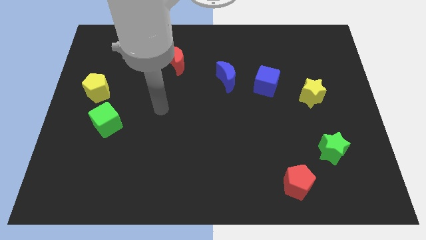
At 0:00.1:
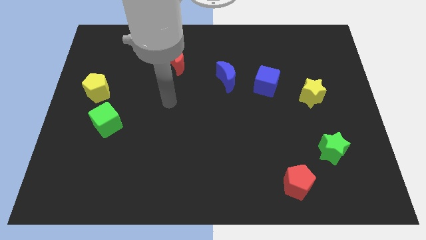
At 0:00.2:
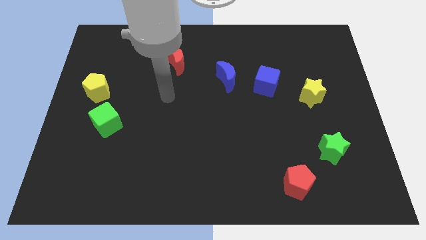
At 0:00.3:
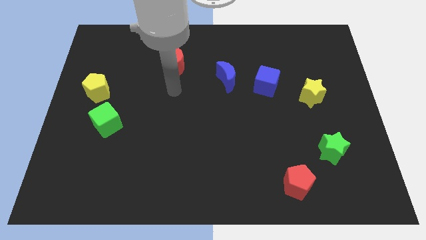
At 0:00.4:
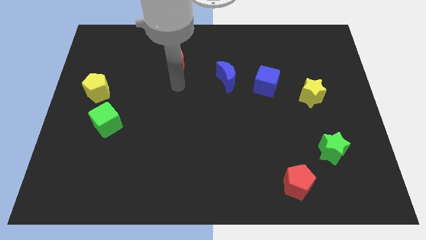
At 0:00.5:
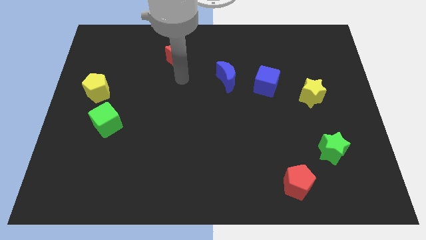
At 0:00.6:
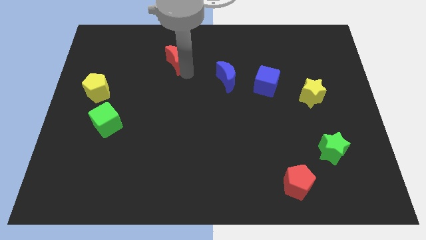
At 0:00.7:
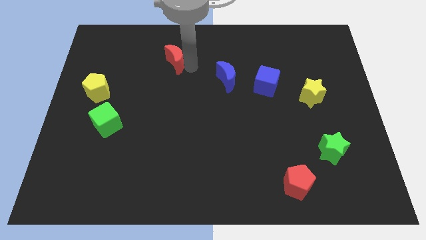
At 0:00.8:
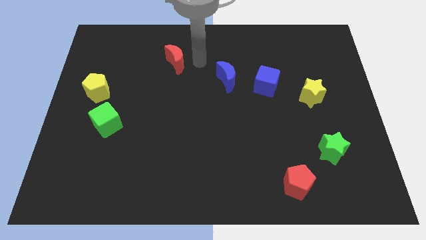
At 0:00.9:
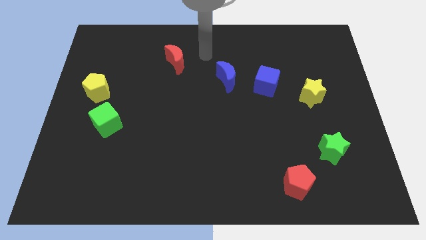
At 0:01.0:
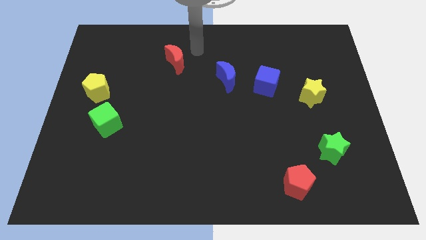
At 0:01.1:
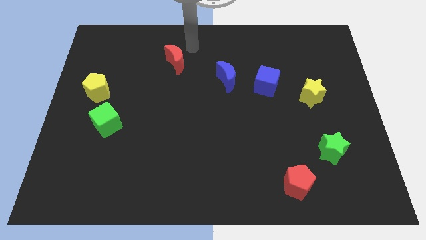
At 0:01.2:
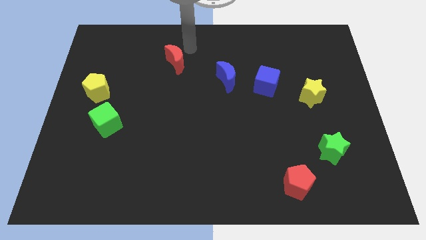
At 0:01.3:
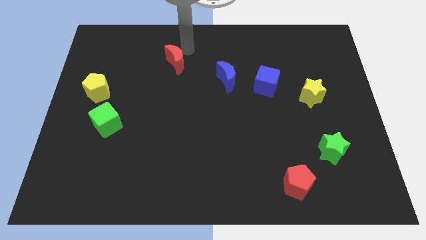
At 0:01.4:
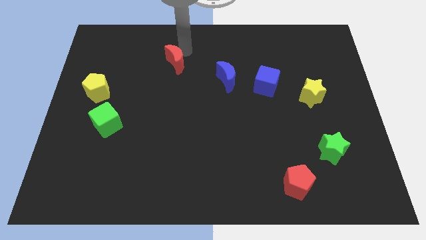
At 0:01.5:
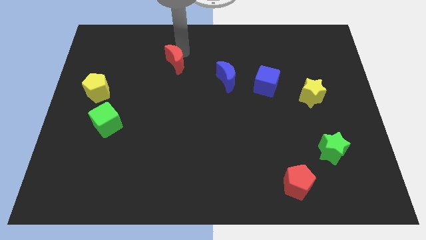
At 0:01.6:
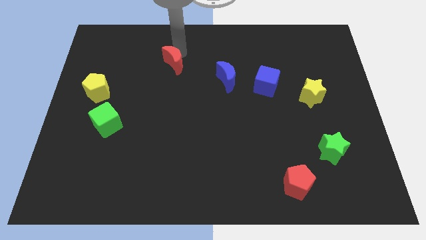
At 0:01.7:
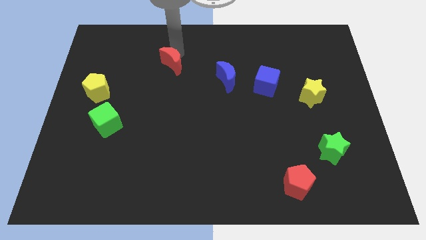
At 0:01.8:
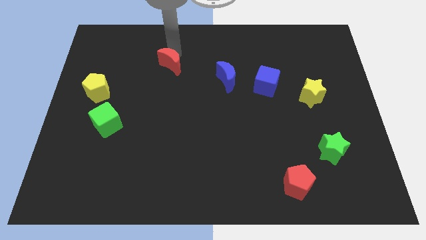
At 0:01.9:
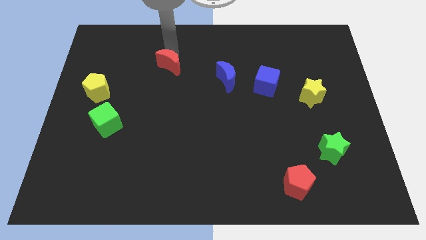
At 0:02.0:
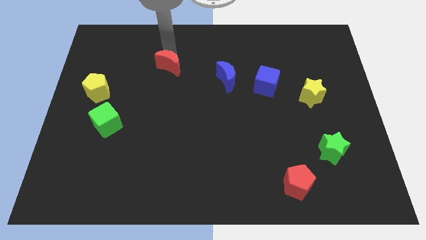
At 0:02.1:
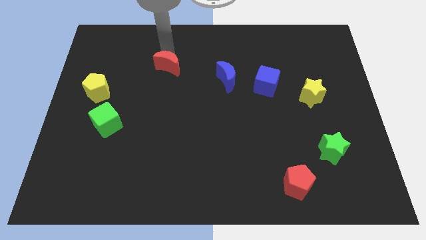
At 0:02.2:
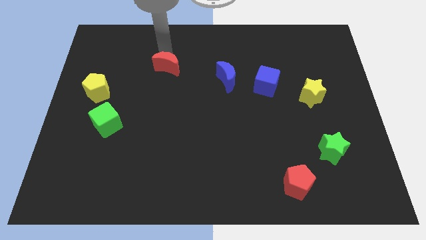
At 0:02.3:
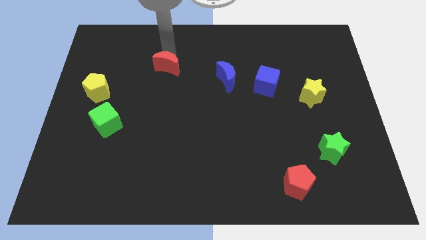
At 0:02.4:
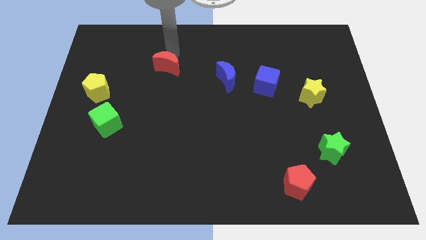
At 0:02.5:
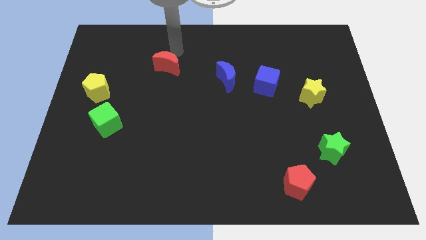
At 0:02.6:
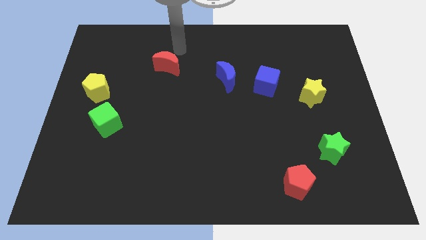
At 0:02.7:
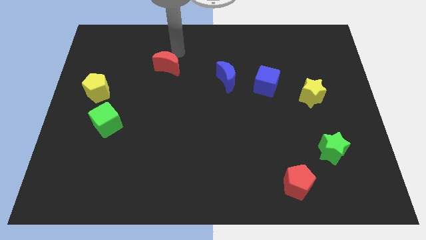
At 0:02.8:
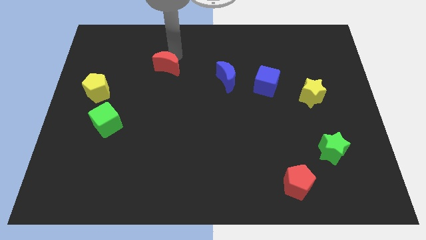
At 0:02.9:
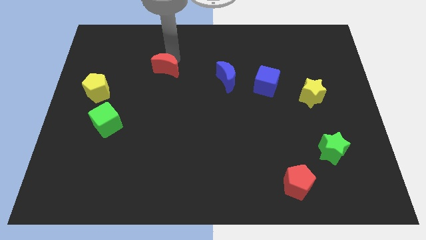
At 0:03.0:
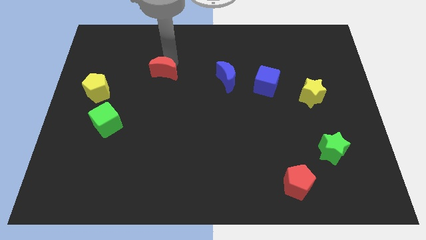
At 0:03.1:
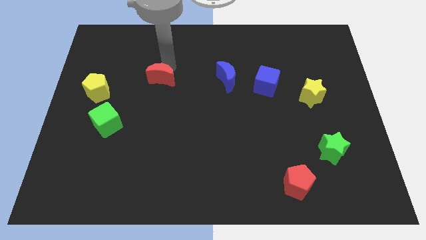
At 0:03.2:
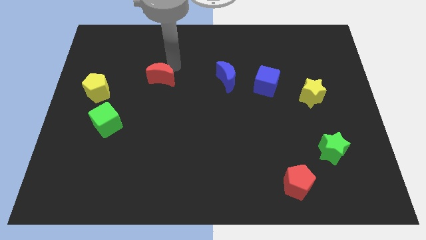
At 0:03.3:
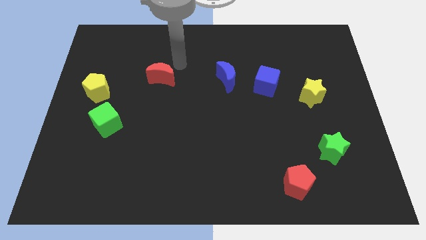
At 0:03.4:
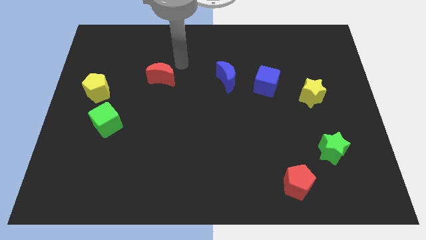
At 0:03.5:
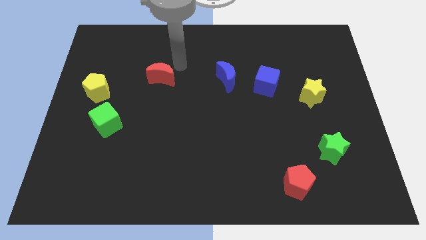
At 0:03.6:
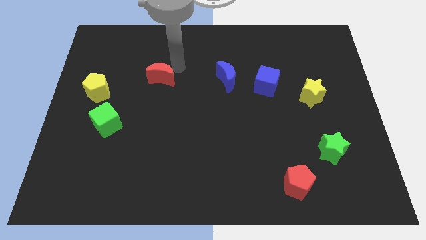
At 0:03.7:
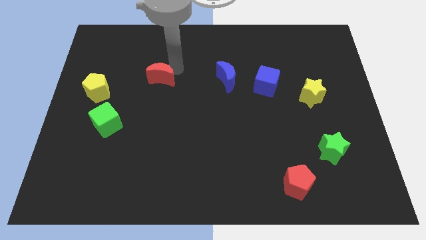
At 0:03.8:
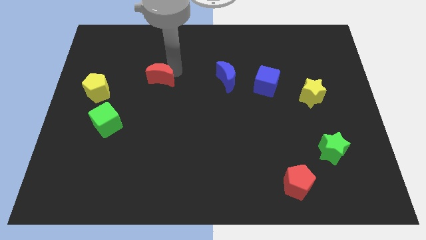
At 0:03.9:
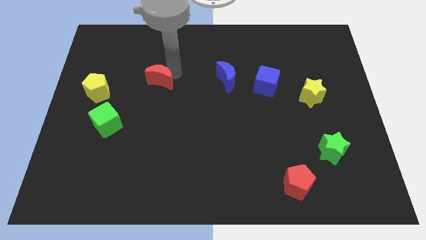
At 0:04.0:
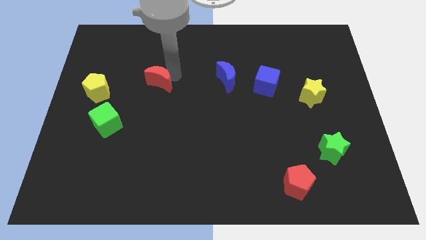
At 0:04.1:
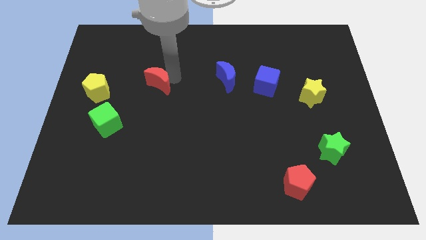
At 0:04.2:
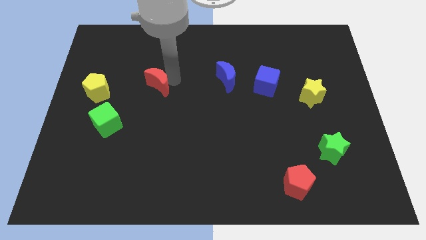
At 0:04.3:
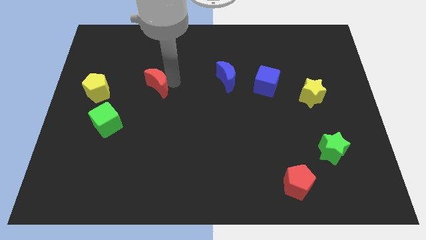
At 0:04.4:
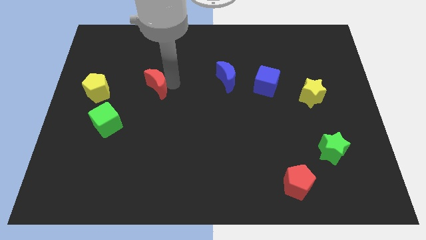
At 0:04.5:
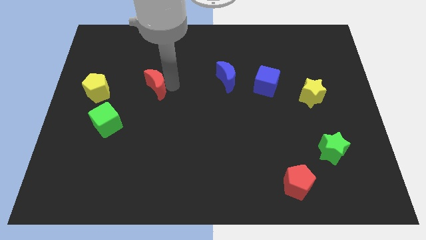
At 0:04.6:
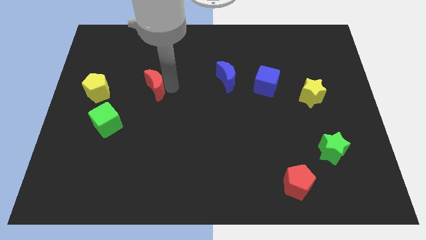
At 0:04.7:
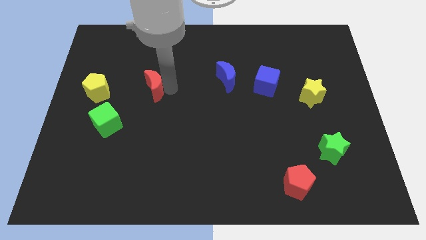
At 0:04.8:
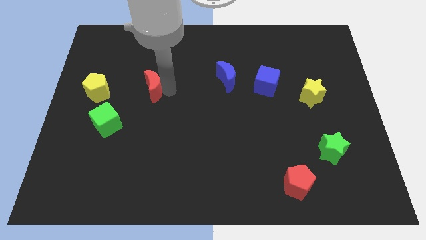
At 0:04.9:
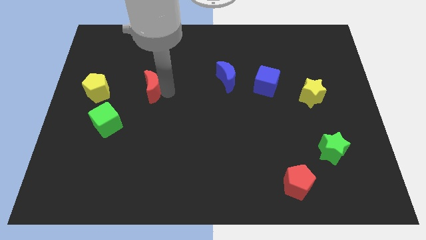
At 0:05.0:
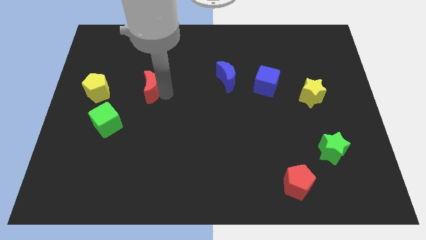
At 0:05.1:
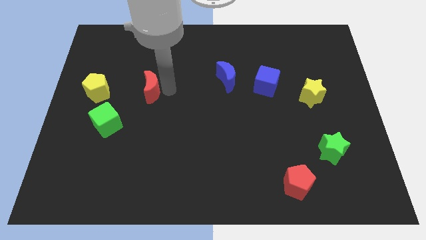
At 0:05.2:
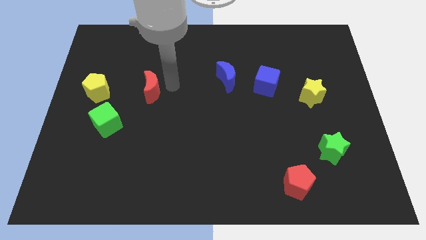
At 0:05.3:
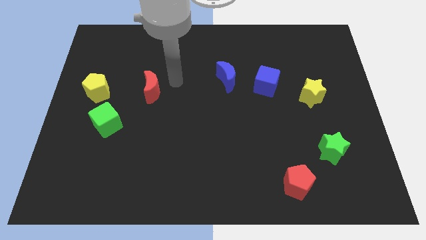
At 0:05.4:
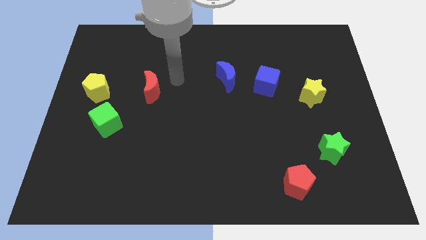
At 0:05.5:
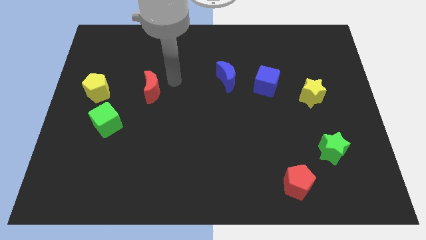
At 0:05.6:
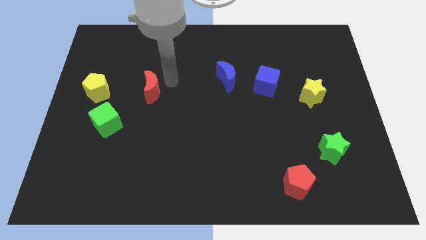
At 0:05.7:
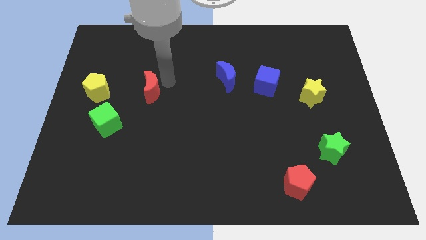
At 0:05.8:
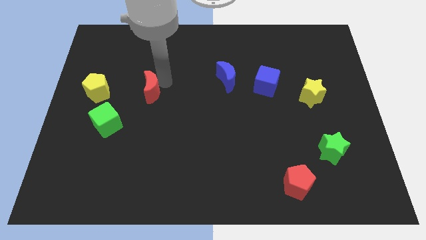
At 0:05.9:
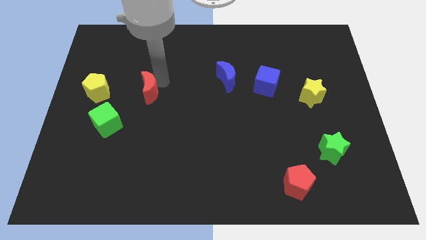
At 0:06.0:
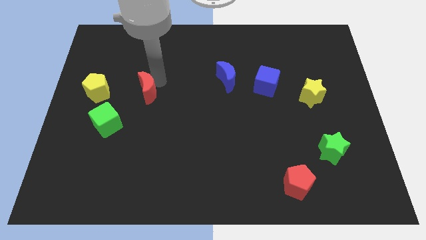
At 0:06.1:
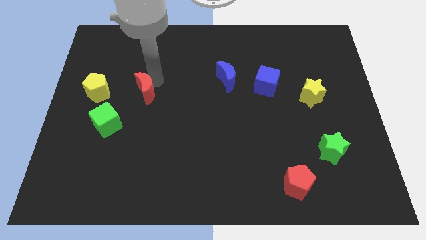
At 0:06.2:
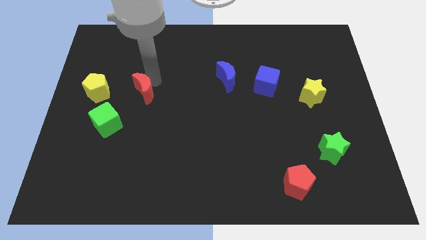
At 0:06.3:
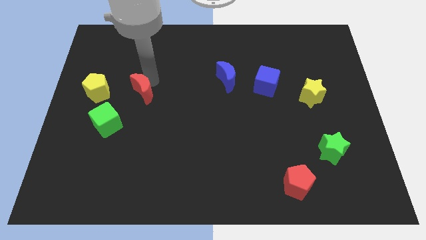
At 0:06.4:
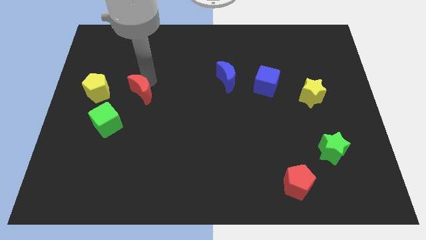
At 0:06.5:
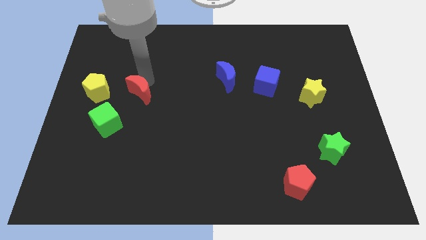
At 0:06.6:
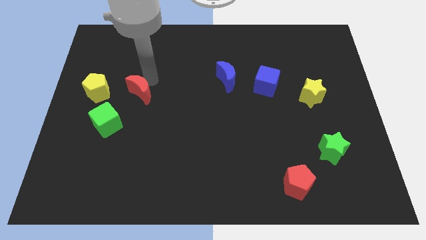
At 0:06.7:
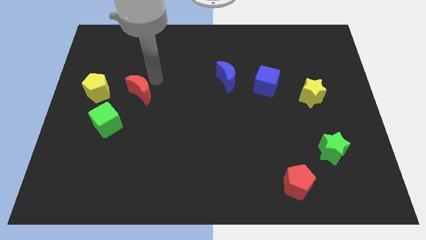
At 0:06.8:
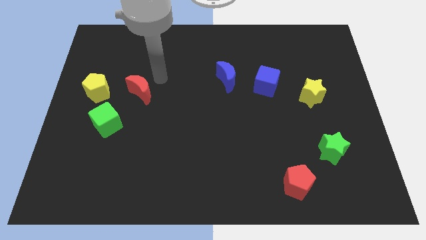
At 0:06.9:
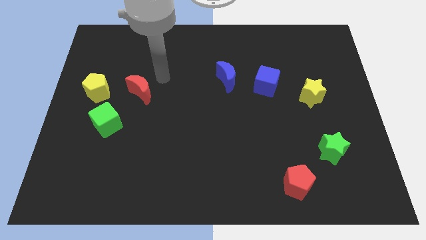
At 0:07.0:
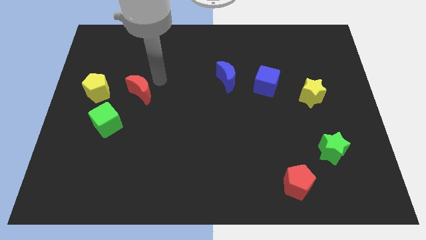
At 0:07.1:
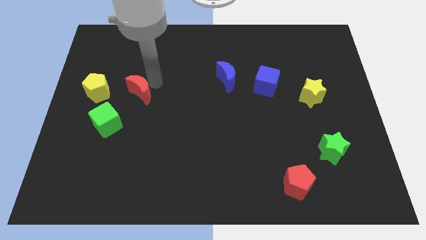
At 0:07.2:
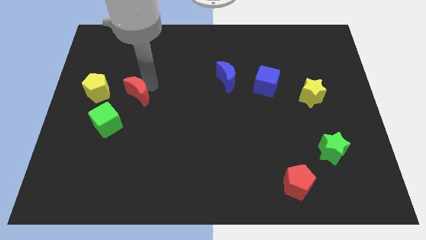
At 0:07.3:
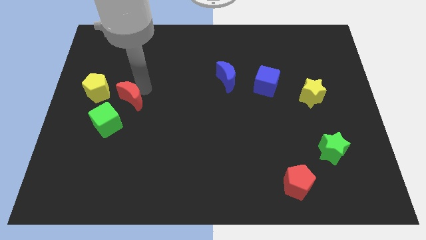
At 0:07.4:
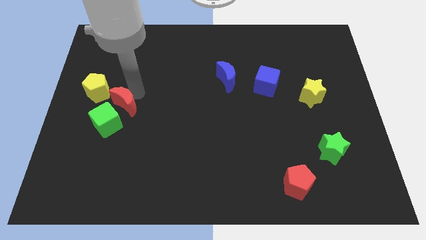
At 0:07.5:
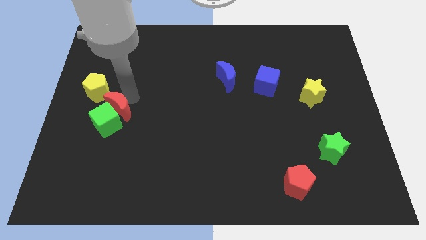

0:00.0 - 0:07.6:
move the red moon close to the green cube
